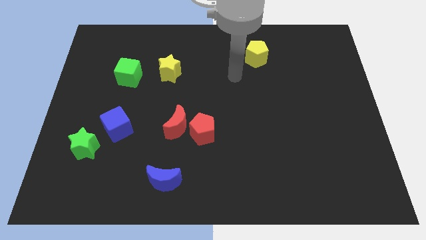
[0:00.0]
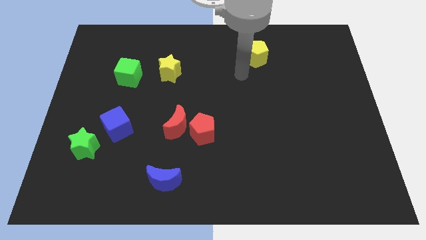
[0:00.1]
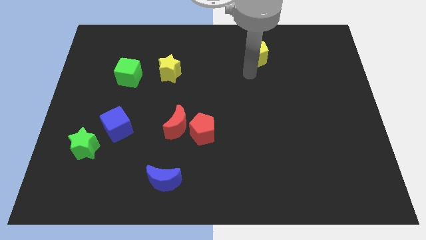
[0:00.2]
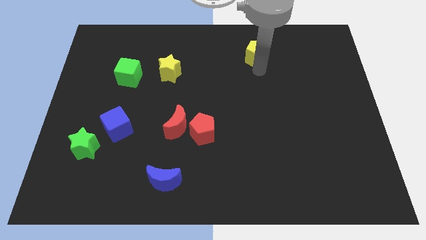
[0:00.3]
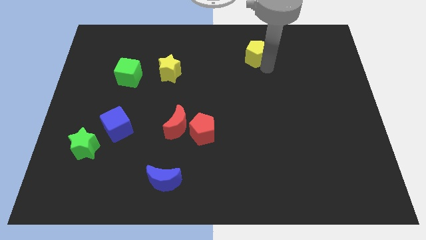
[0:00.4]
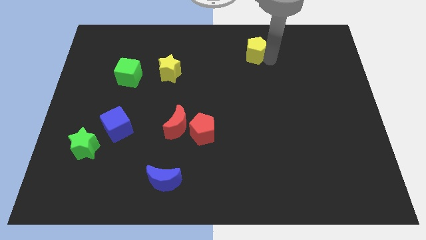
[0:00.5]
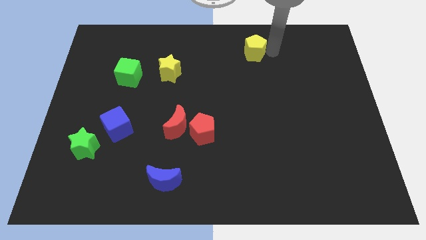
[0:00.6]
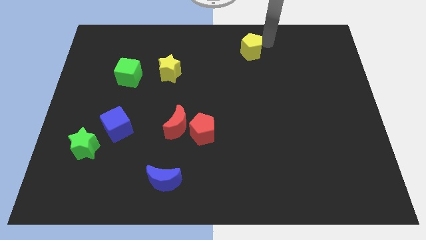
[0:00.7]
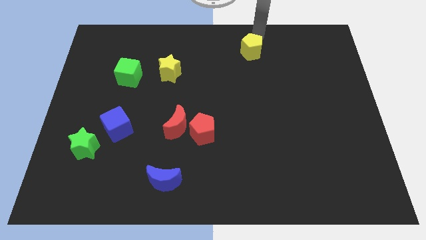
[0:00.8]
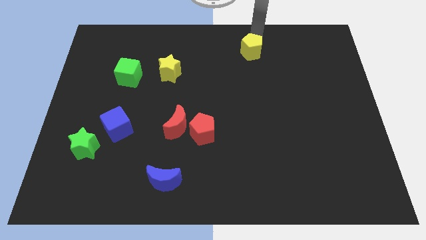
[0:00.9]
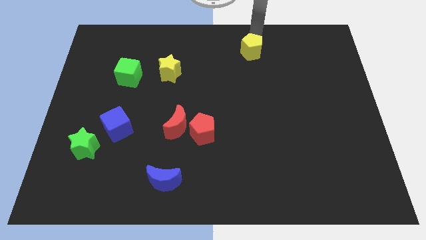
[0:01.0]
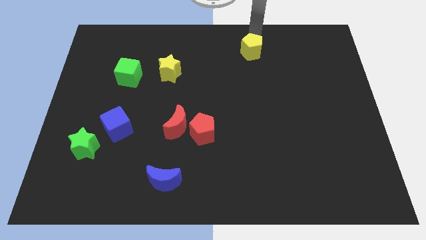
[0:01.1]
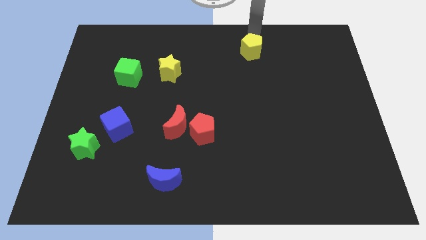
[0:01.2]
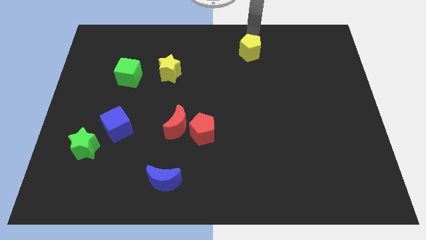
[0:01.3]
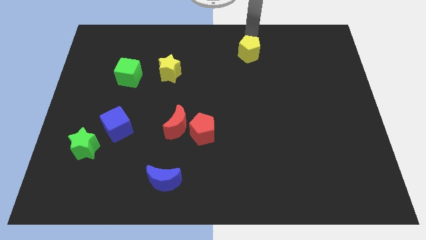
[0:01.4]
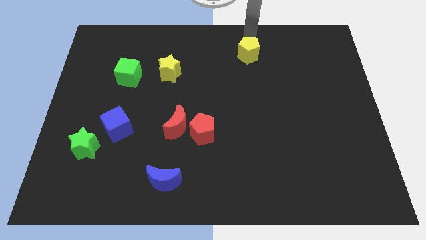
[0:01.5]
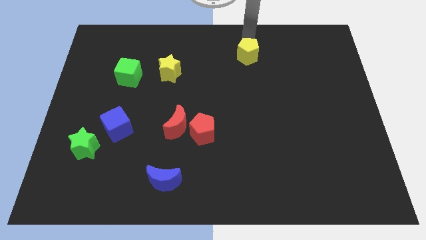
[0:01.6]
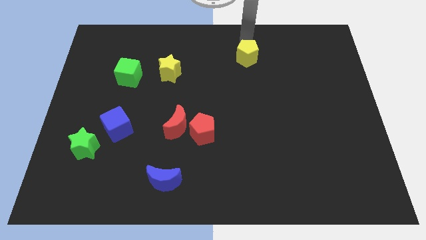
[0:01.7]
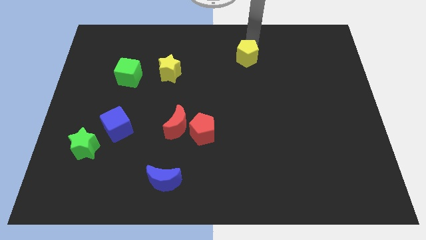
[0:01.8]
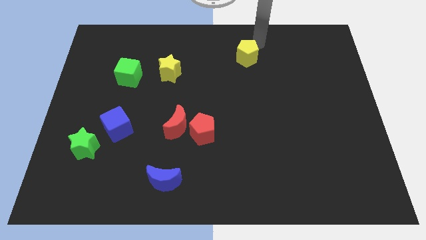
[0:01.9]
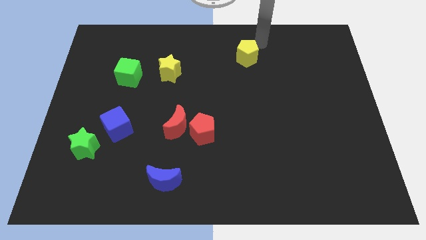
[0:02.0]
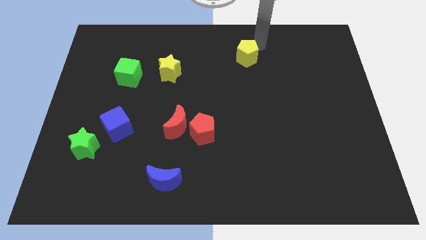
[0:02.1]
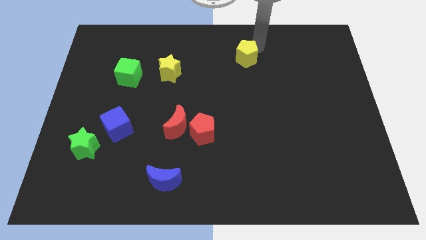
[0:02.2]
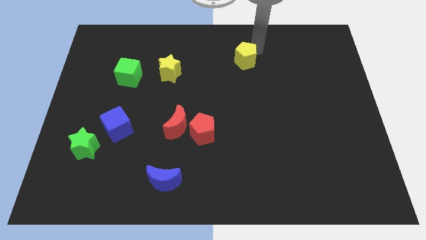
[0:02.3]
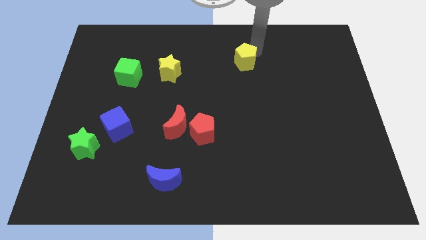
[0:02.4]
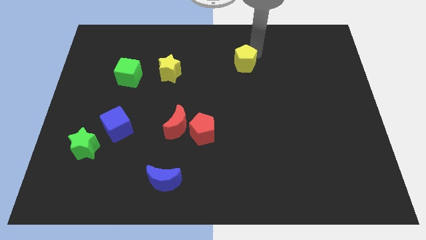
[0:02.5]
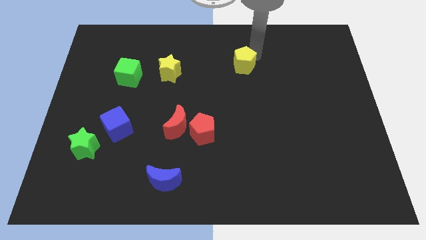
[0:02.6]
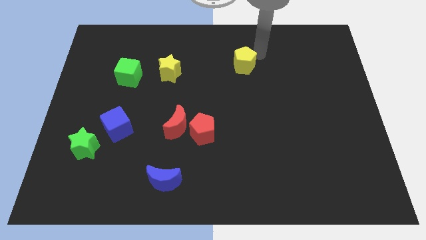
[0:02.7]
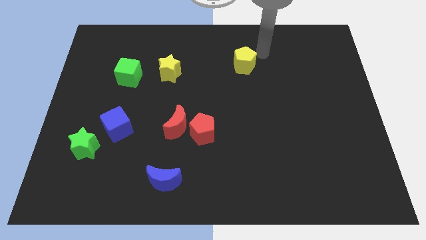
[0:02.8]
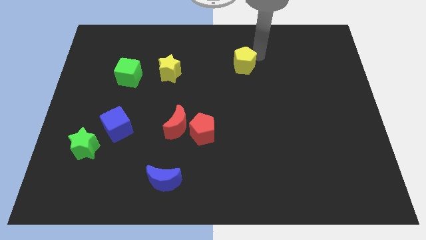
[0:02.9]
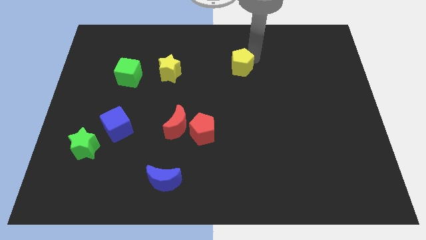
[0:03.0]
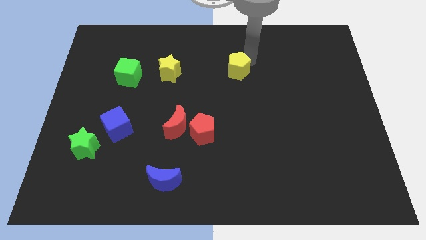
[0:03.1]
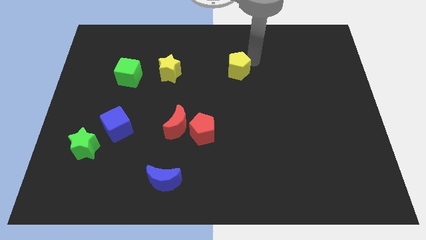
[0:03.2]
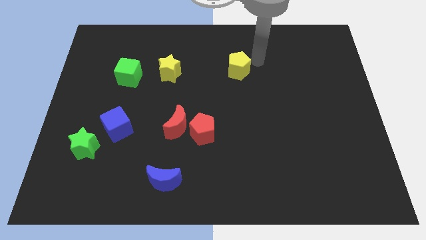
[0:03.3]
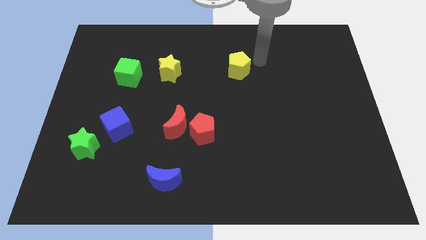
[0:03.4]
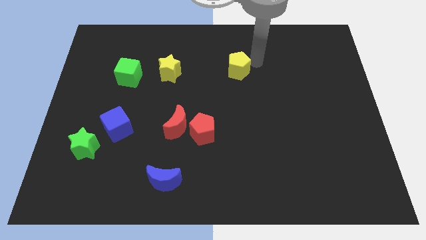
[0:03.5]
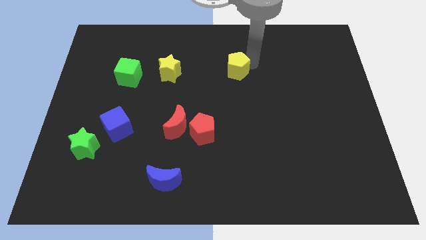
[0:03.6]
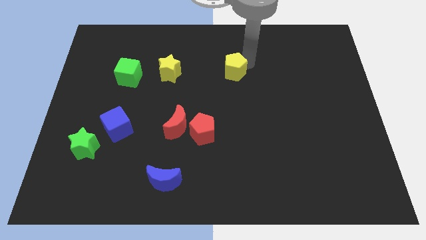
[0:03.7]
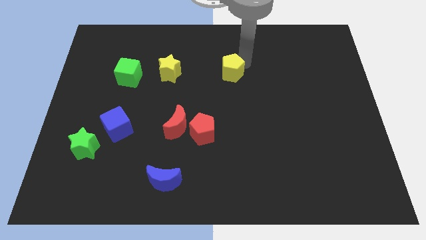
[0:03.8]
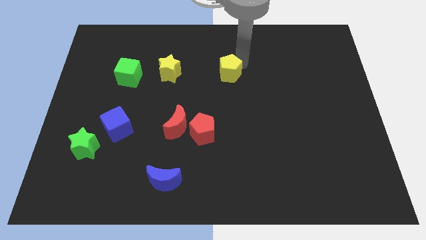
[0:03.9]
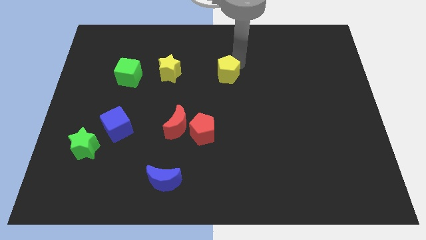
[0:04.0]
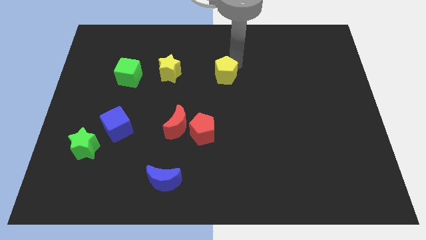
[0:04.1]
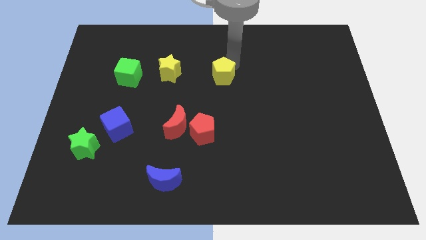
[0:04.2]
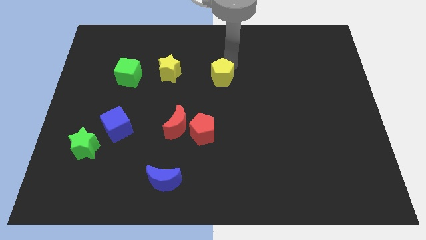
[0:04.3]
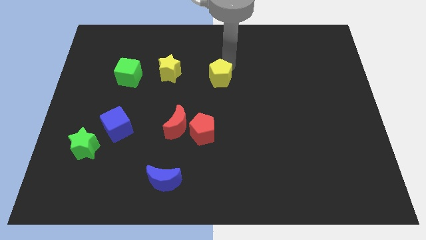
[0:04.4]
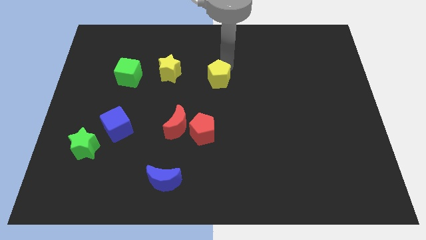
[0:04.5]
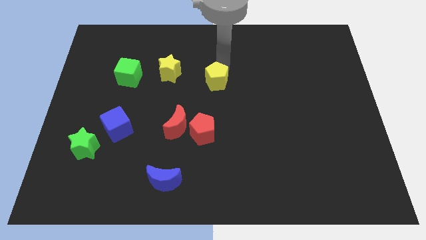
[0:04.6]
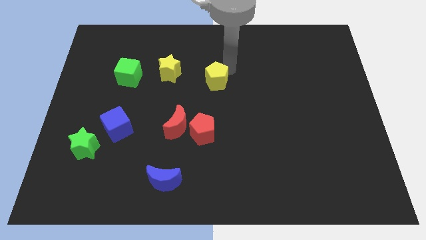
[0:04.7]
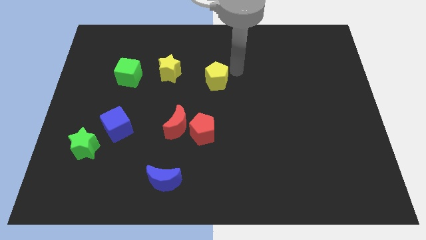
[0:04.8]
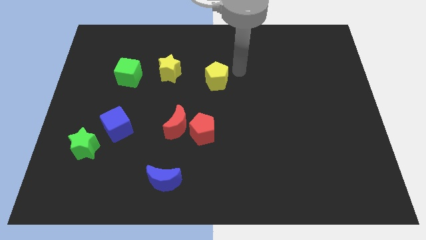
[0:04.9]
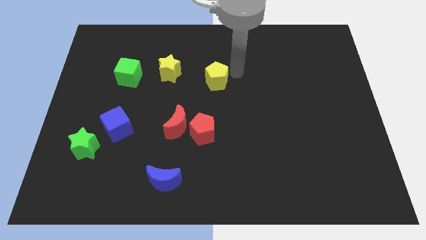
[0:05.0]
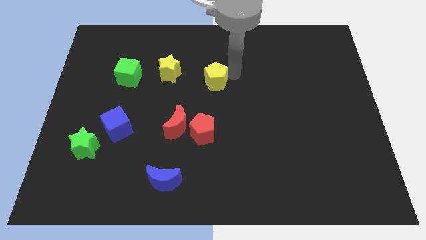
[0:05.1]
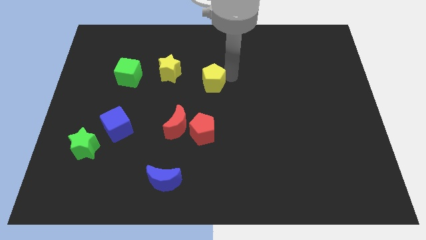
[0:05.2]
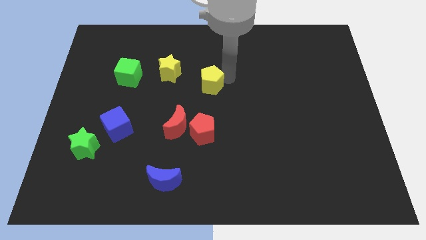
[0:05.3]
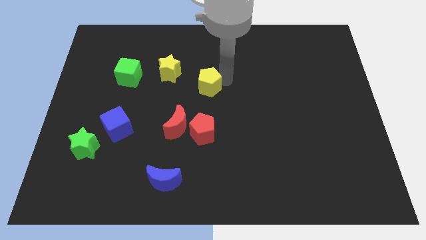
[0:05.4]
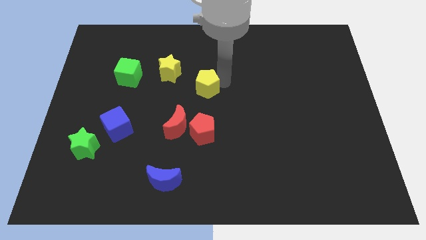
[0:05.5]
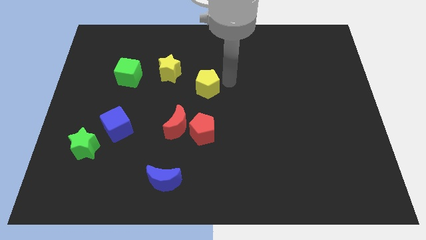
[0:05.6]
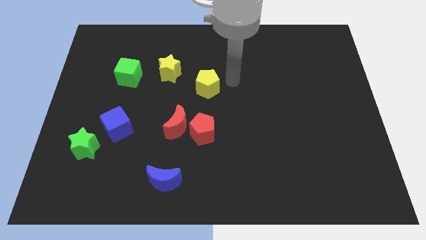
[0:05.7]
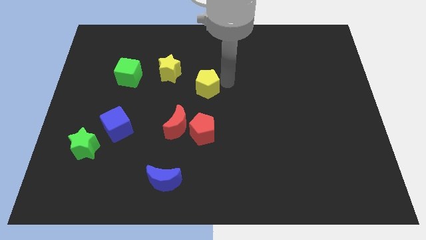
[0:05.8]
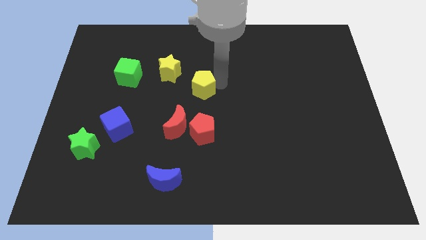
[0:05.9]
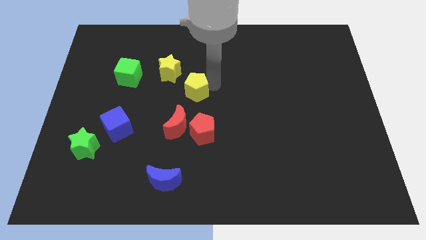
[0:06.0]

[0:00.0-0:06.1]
slide the yellow pentagon above the red moon

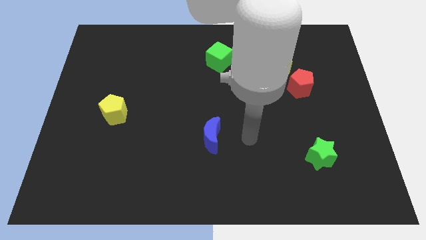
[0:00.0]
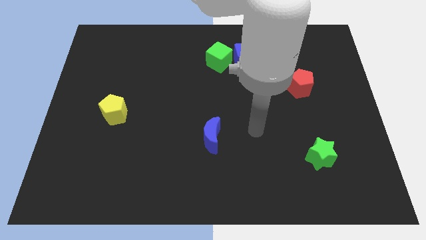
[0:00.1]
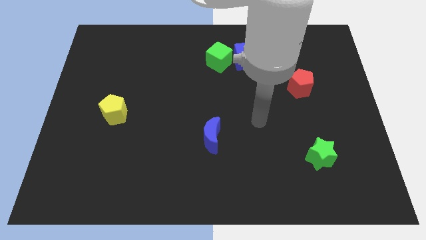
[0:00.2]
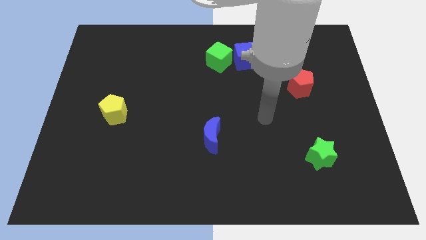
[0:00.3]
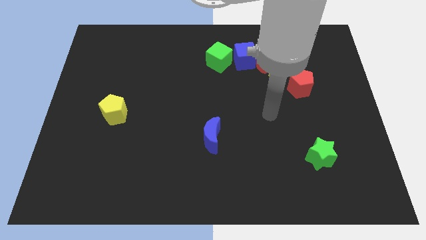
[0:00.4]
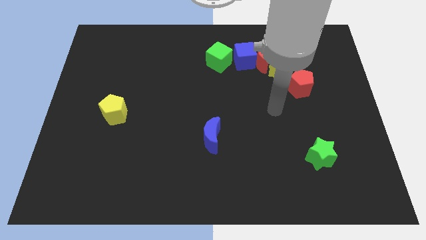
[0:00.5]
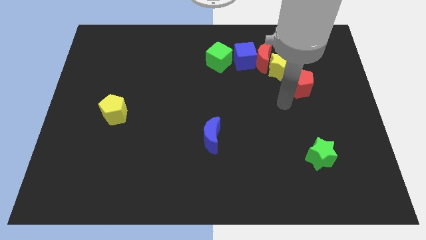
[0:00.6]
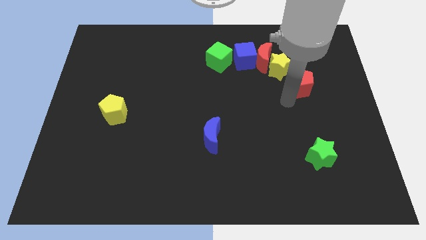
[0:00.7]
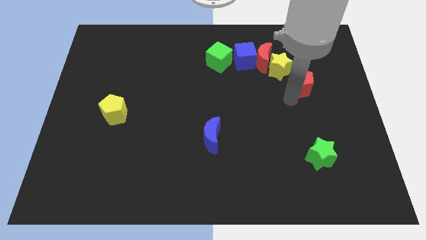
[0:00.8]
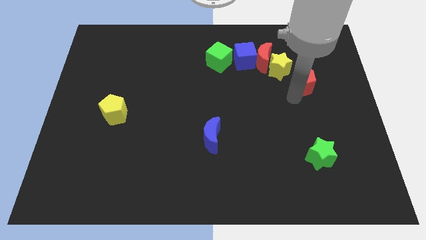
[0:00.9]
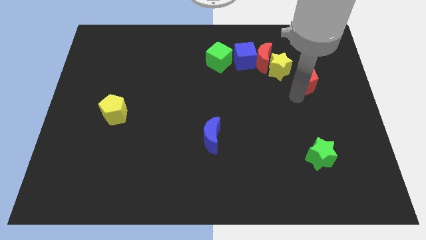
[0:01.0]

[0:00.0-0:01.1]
push the red pentagon right of the yellow star
